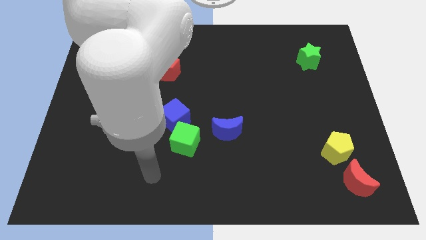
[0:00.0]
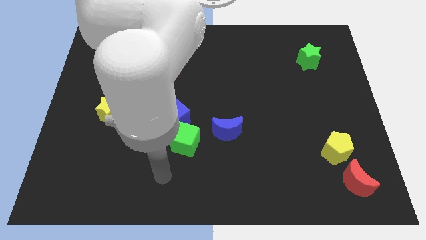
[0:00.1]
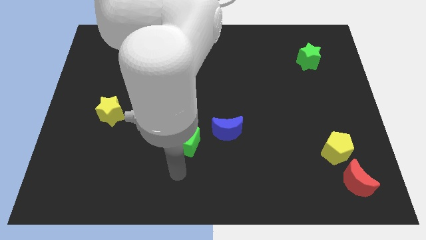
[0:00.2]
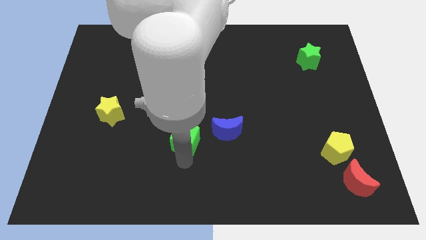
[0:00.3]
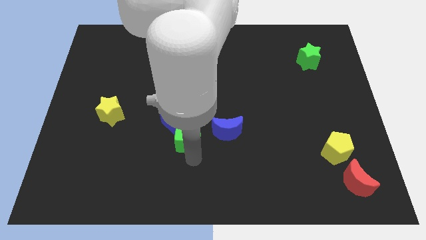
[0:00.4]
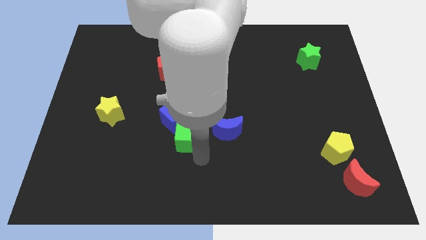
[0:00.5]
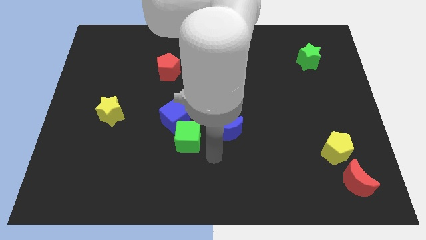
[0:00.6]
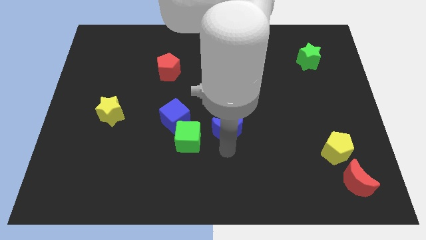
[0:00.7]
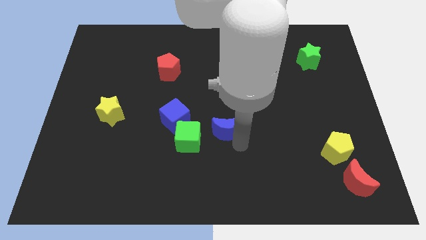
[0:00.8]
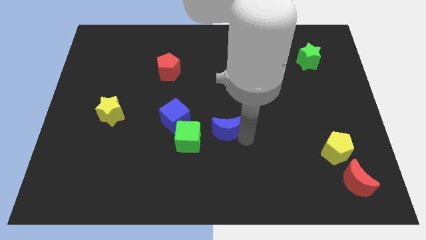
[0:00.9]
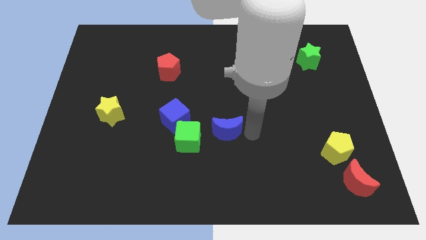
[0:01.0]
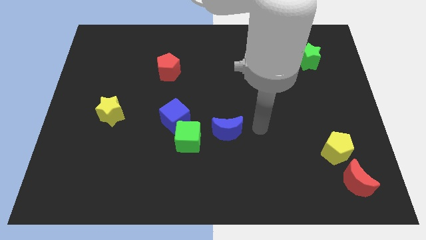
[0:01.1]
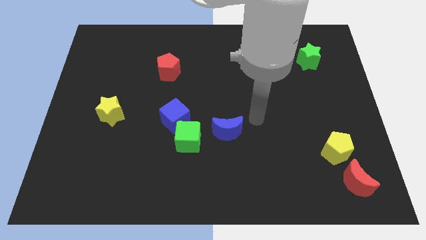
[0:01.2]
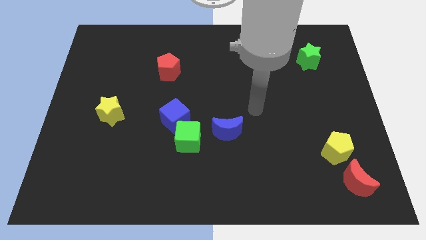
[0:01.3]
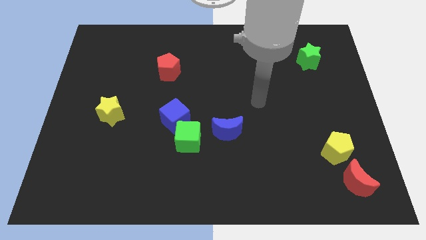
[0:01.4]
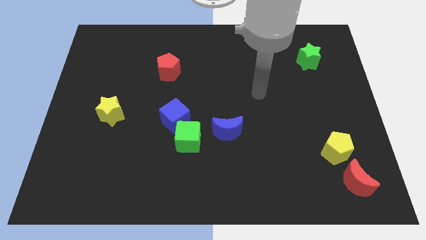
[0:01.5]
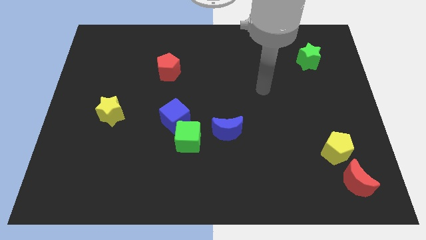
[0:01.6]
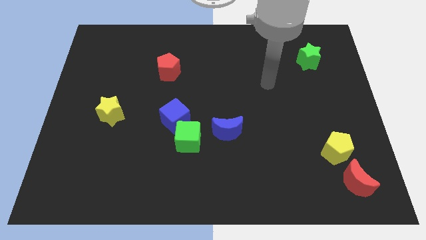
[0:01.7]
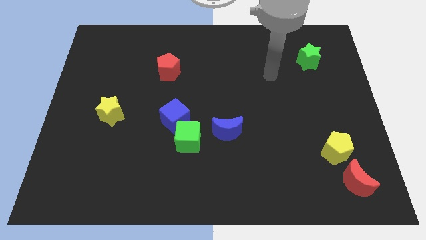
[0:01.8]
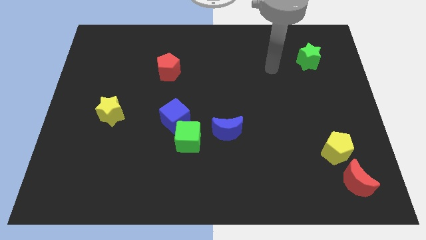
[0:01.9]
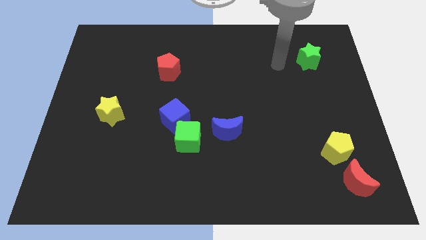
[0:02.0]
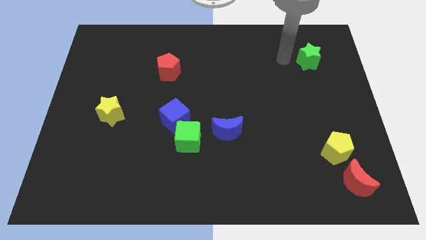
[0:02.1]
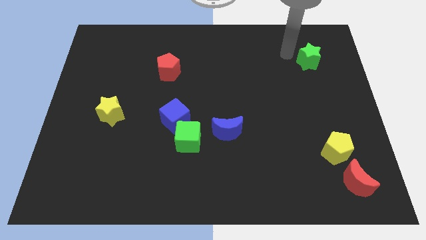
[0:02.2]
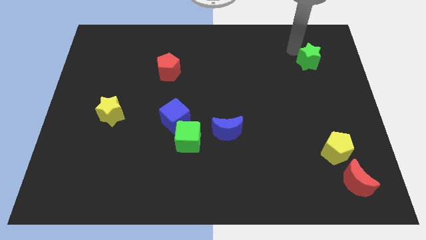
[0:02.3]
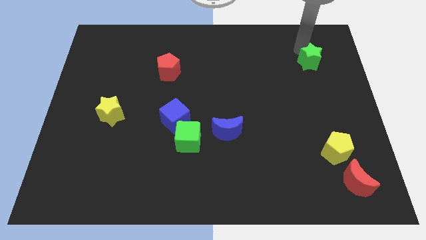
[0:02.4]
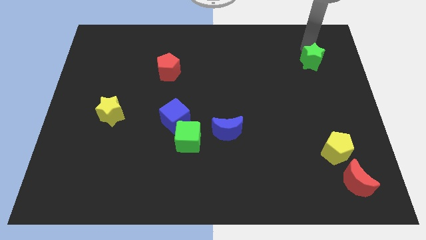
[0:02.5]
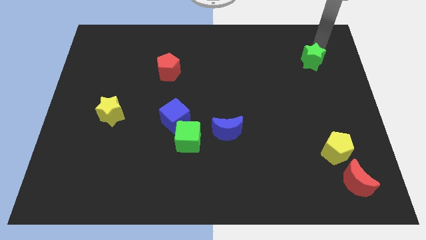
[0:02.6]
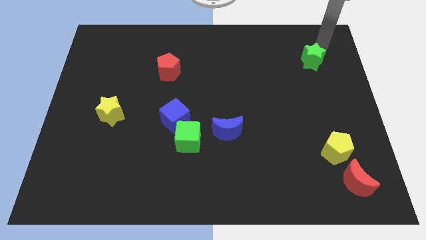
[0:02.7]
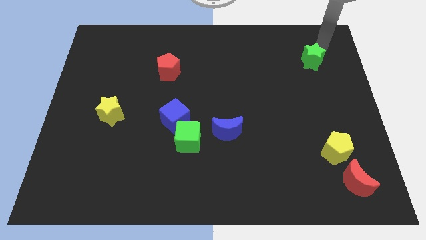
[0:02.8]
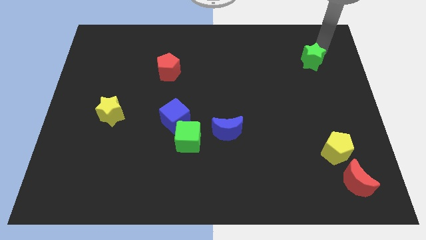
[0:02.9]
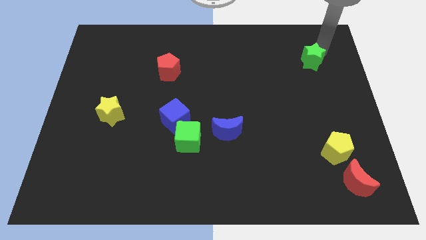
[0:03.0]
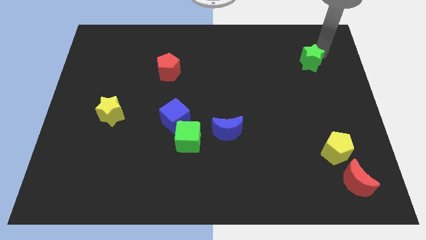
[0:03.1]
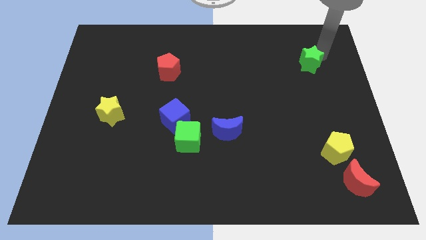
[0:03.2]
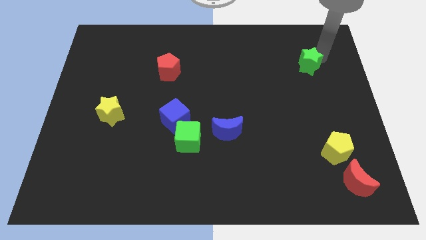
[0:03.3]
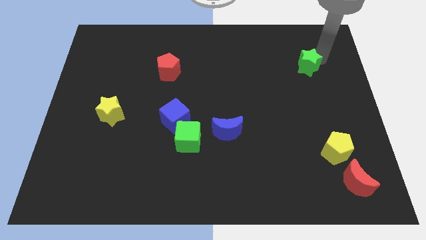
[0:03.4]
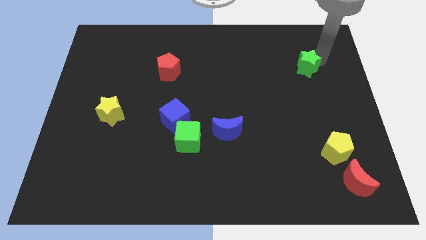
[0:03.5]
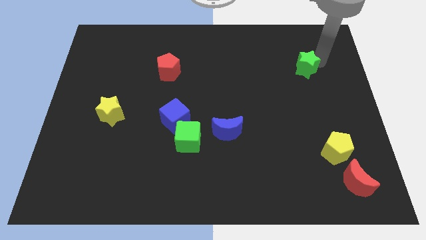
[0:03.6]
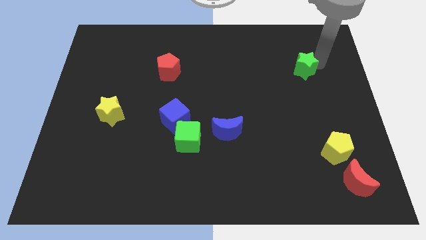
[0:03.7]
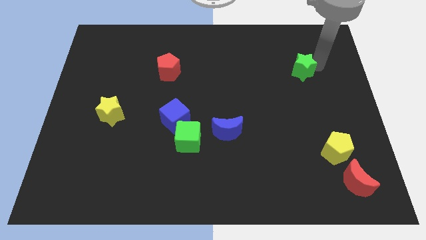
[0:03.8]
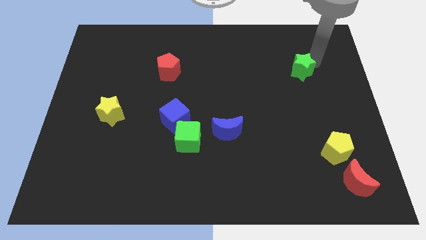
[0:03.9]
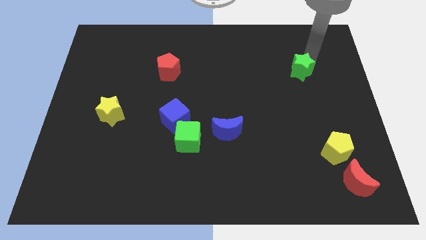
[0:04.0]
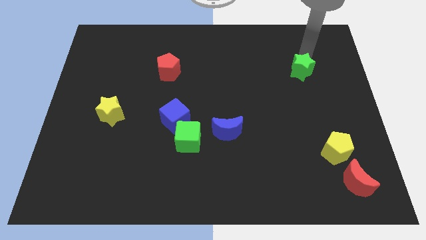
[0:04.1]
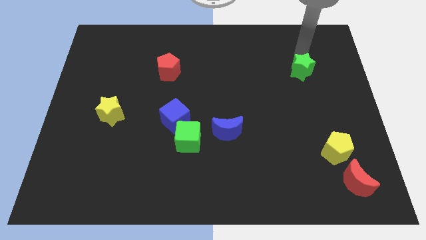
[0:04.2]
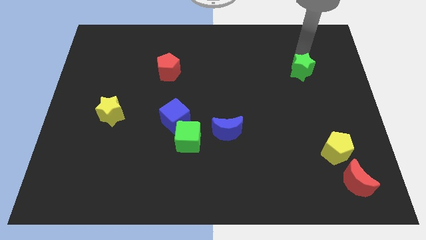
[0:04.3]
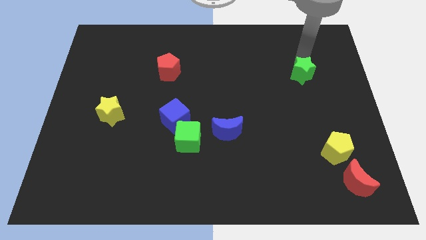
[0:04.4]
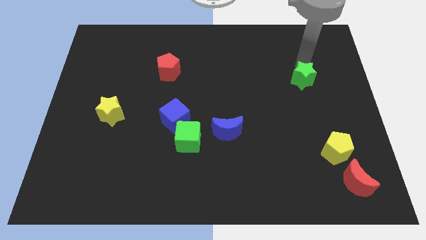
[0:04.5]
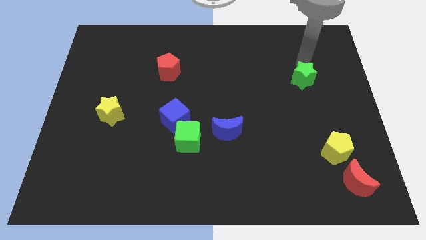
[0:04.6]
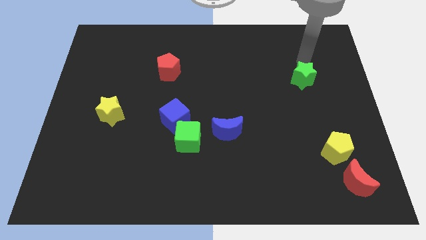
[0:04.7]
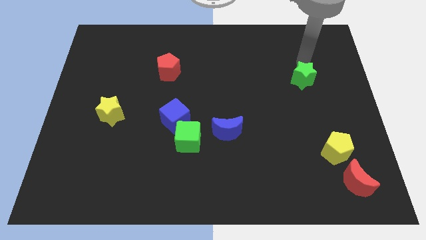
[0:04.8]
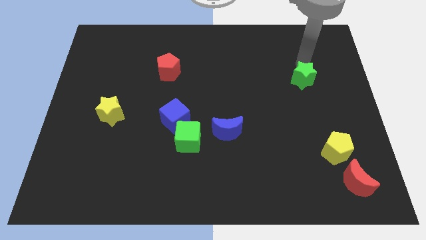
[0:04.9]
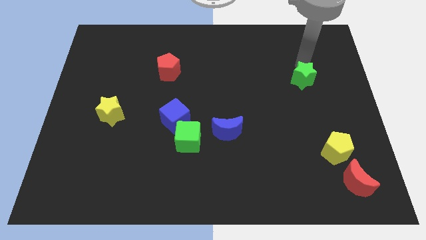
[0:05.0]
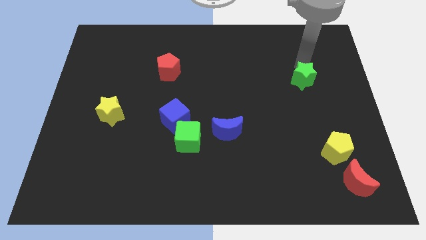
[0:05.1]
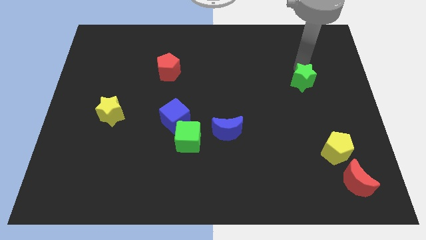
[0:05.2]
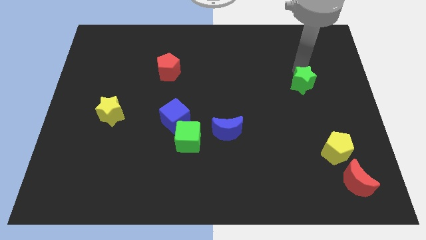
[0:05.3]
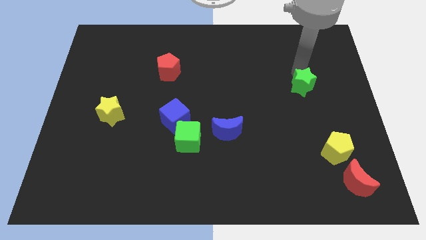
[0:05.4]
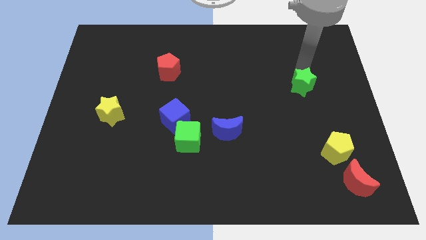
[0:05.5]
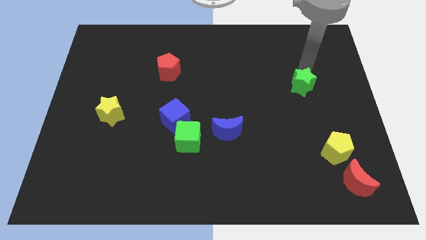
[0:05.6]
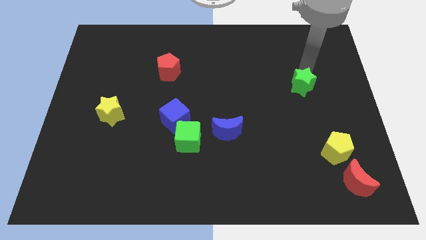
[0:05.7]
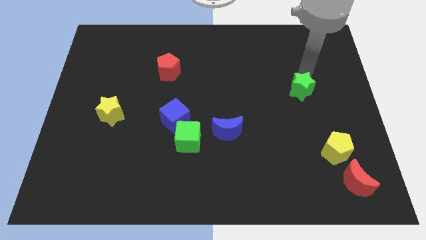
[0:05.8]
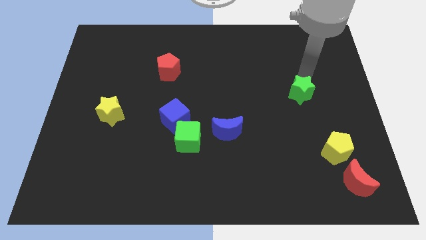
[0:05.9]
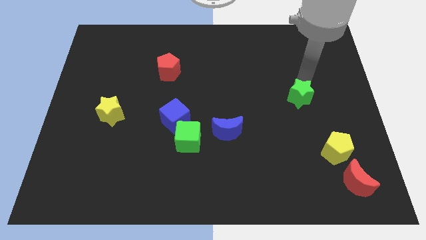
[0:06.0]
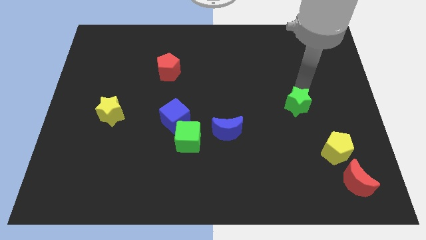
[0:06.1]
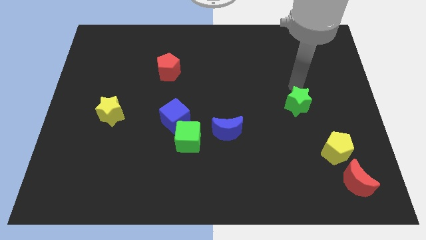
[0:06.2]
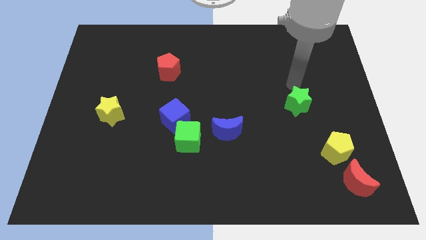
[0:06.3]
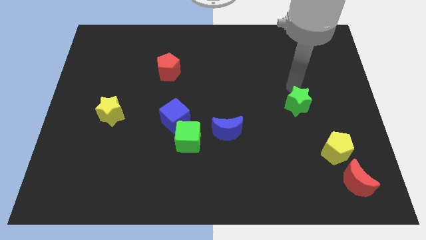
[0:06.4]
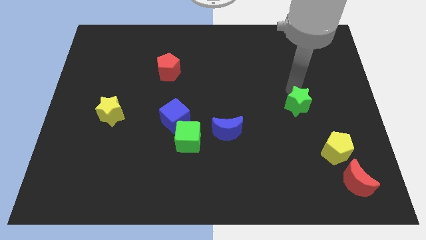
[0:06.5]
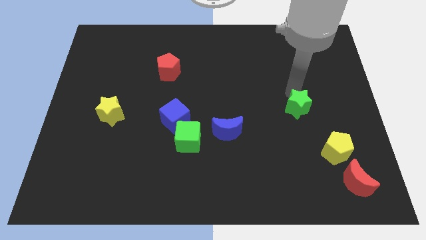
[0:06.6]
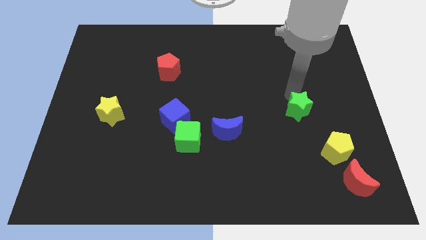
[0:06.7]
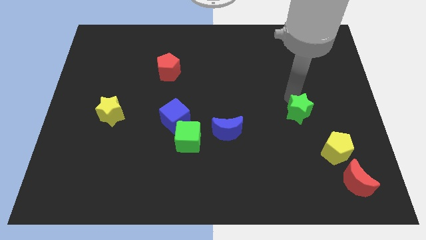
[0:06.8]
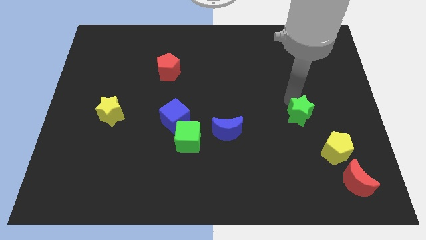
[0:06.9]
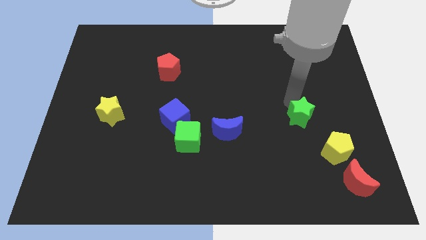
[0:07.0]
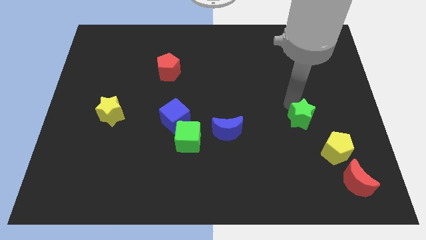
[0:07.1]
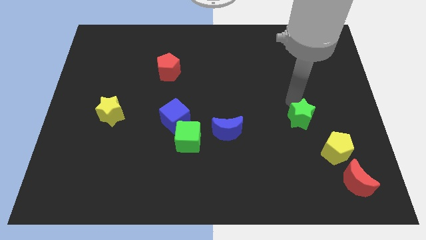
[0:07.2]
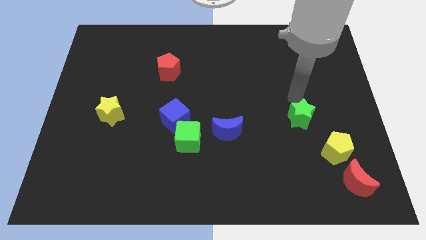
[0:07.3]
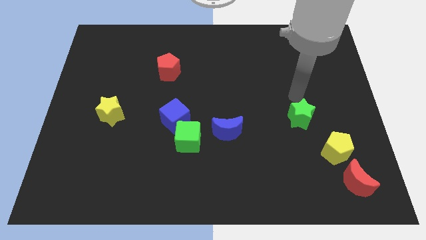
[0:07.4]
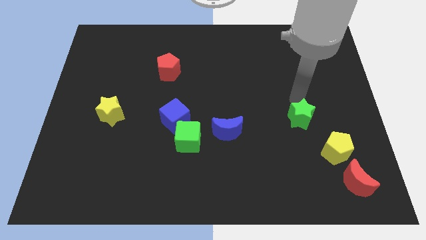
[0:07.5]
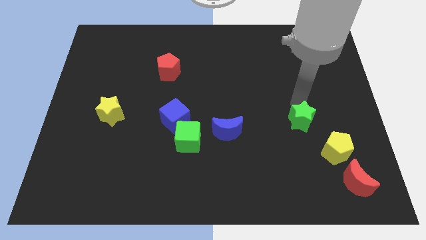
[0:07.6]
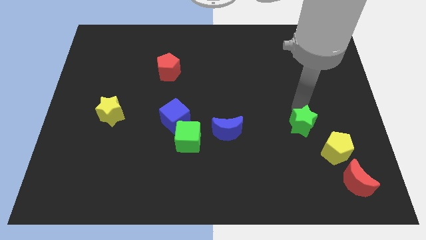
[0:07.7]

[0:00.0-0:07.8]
move the green star down

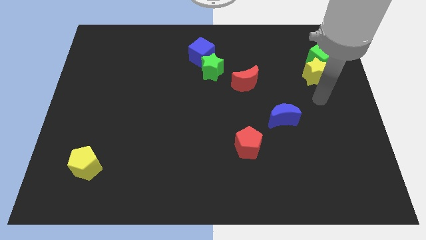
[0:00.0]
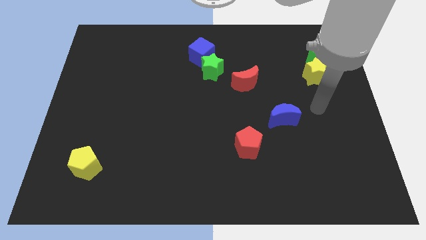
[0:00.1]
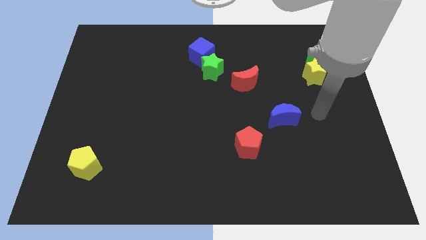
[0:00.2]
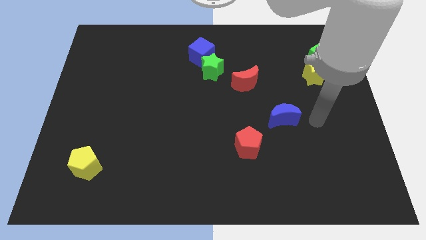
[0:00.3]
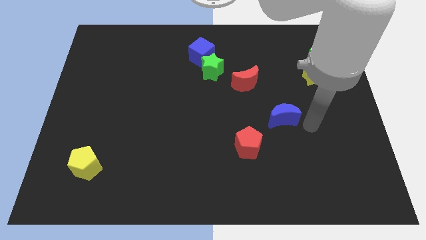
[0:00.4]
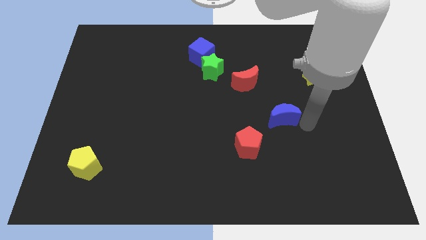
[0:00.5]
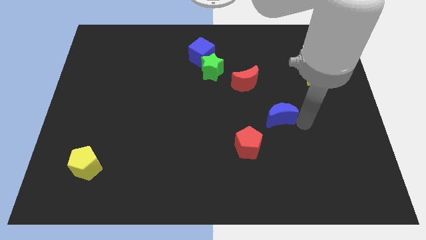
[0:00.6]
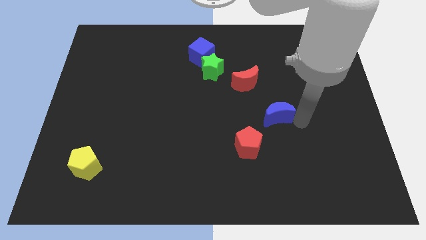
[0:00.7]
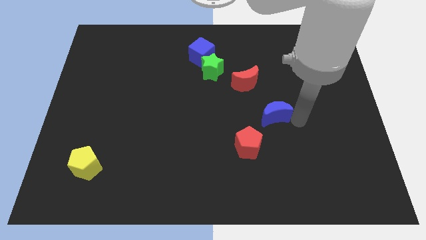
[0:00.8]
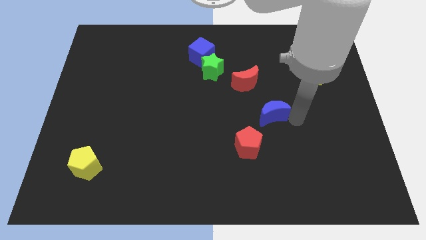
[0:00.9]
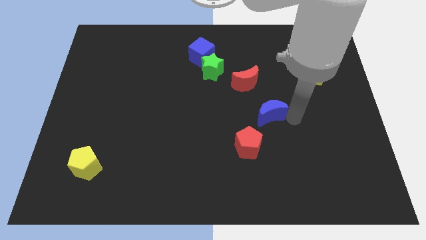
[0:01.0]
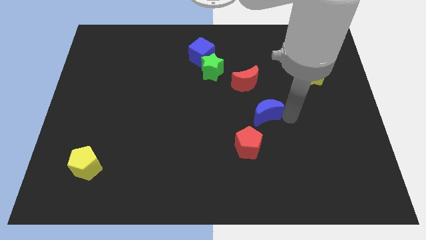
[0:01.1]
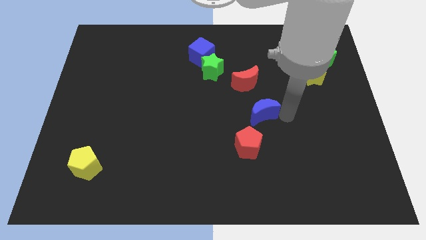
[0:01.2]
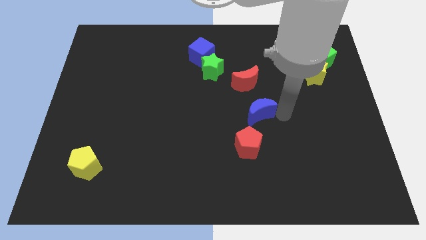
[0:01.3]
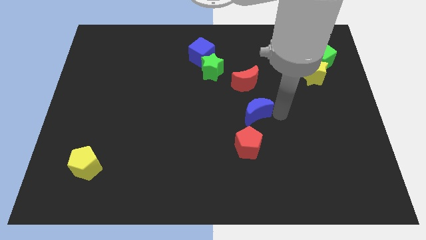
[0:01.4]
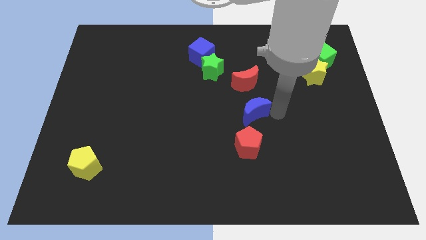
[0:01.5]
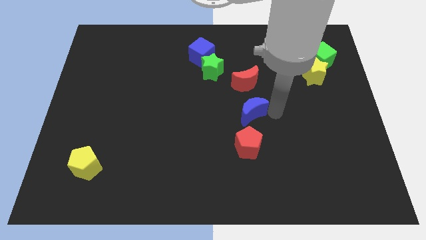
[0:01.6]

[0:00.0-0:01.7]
slide the blue moon left a bit
